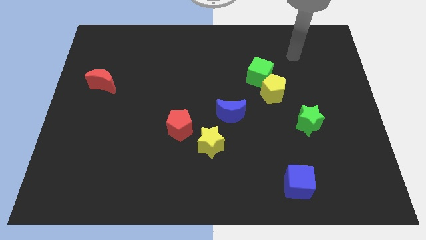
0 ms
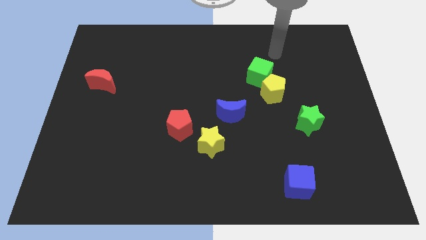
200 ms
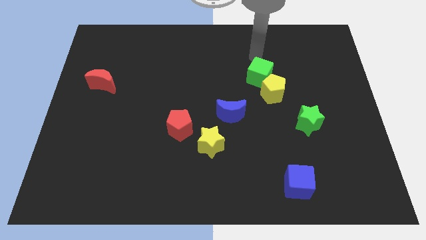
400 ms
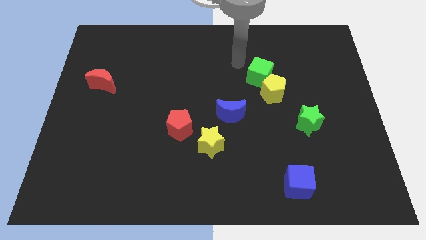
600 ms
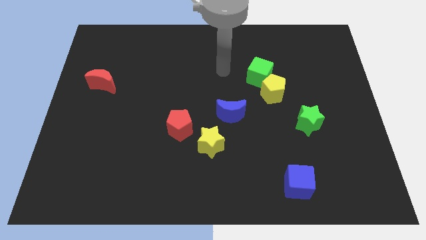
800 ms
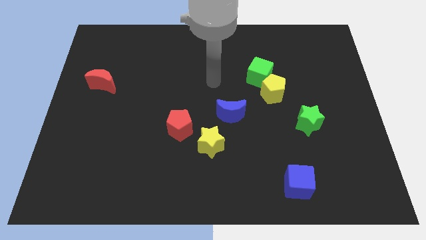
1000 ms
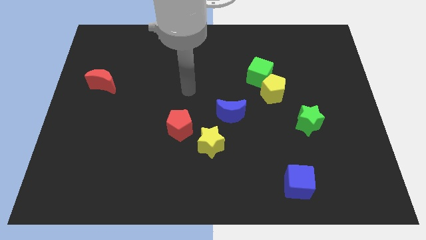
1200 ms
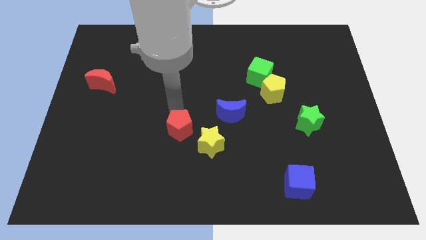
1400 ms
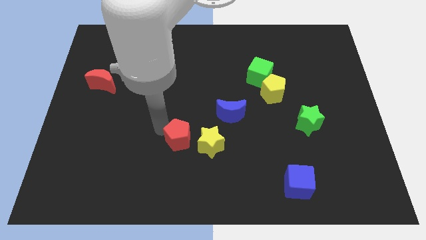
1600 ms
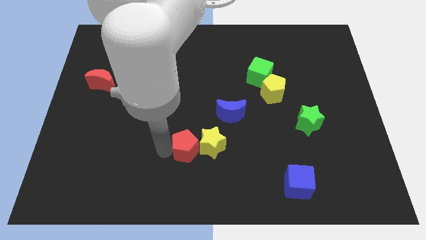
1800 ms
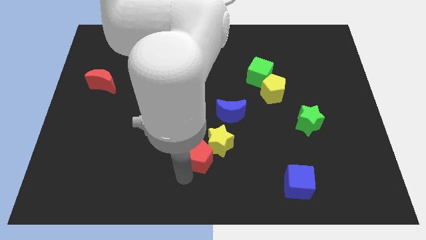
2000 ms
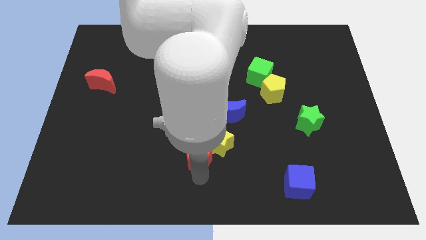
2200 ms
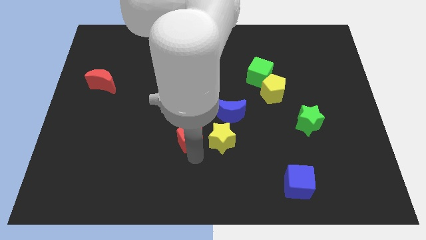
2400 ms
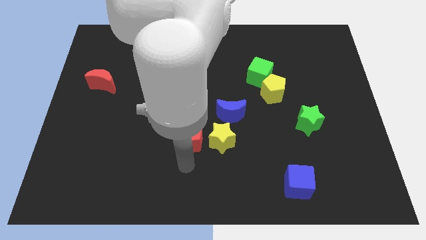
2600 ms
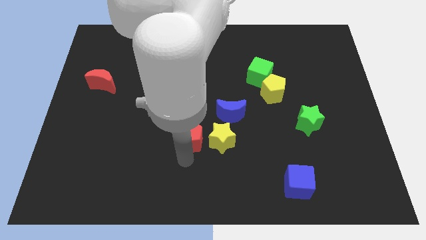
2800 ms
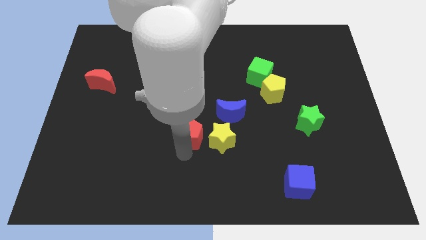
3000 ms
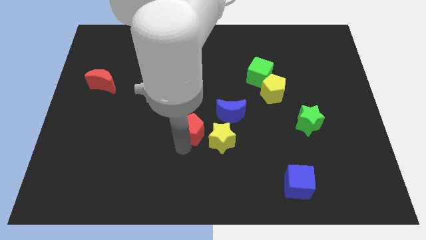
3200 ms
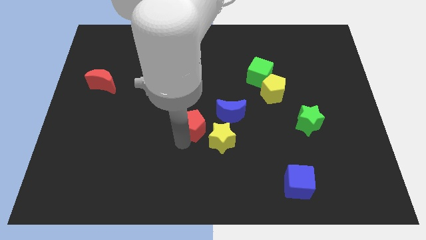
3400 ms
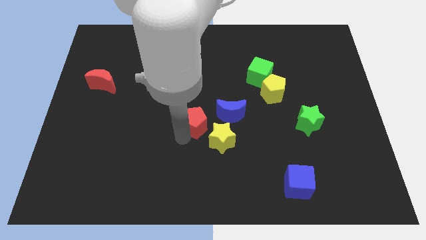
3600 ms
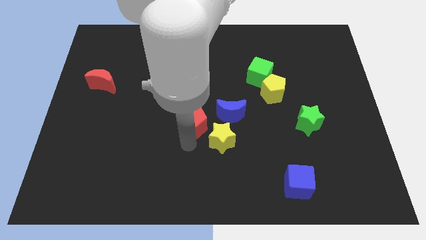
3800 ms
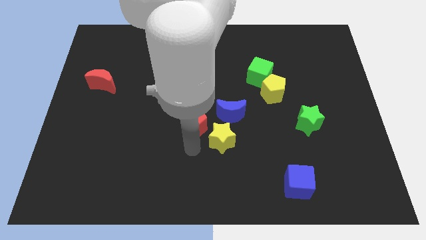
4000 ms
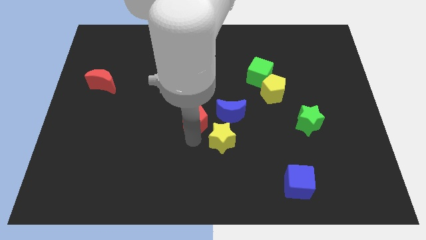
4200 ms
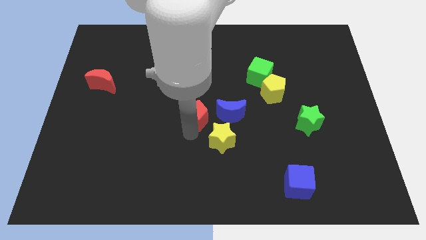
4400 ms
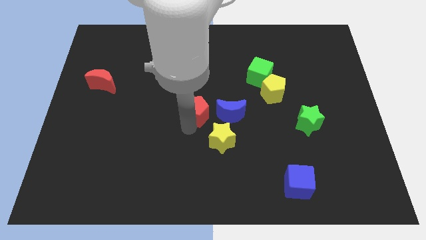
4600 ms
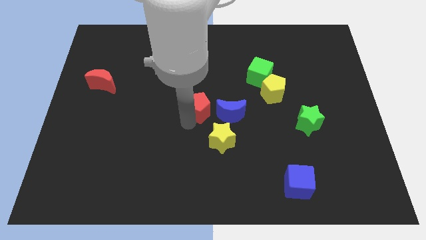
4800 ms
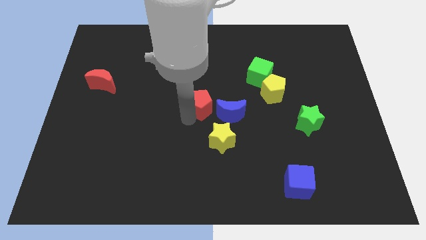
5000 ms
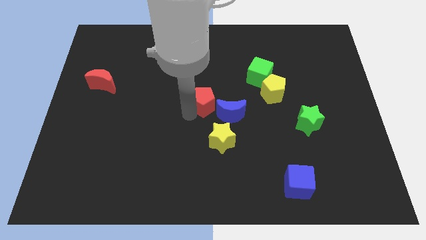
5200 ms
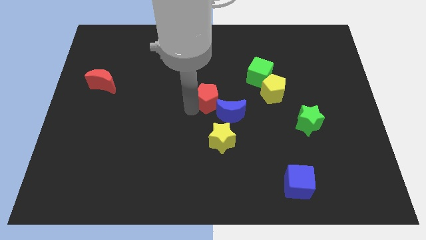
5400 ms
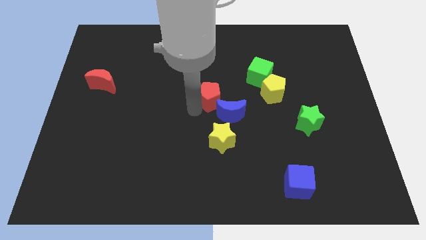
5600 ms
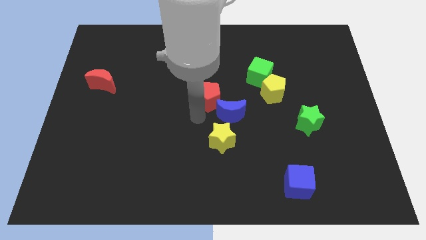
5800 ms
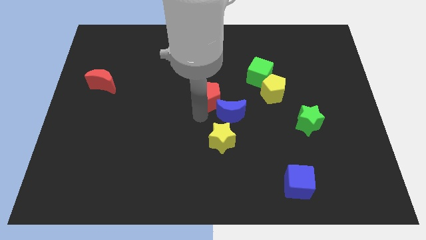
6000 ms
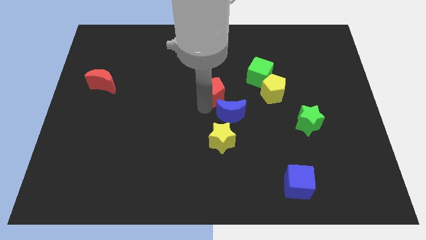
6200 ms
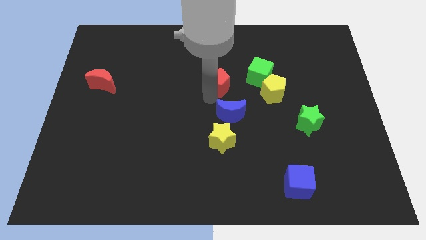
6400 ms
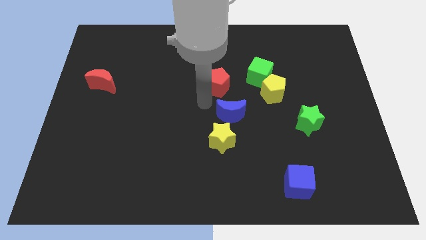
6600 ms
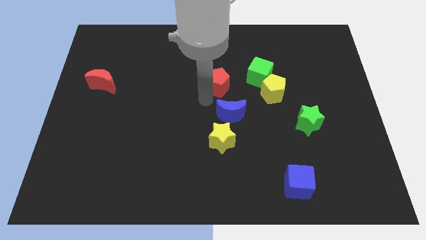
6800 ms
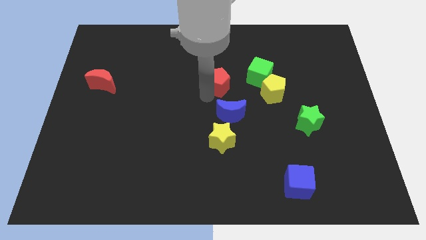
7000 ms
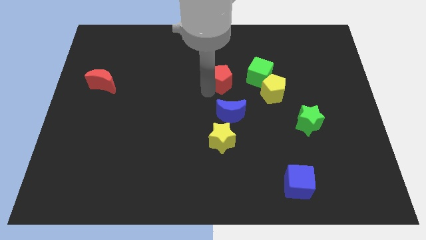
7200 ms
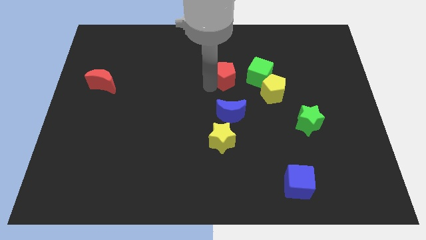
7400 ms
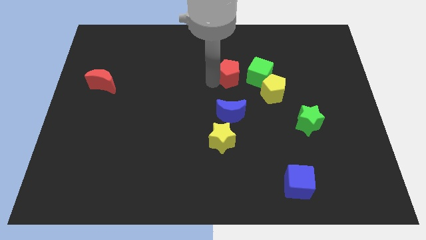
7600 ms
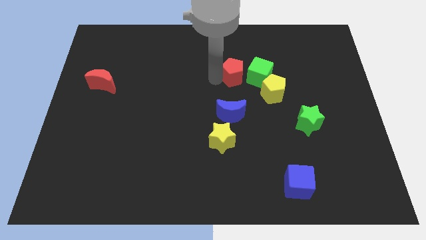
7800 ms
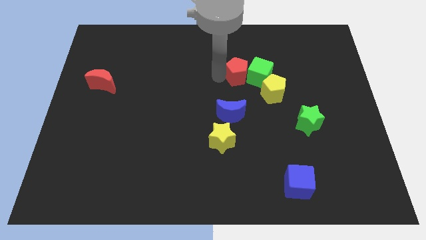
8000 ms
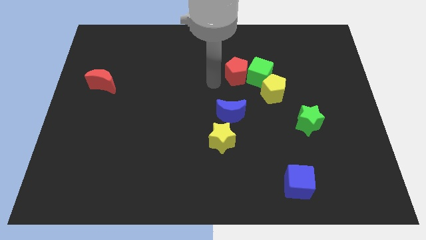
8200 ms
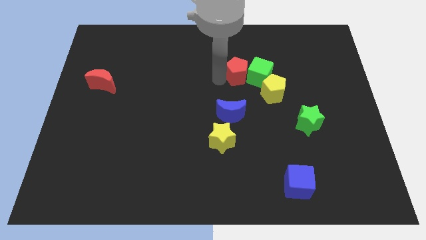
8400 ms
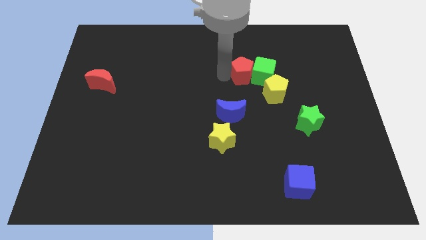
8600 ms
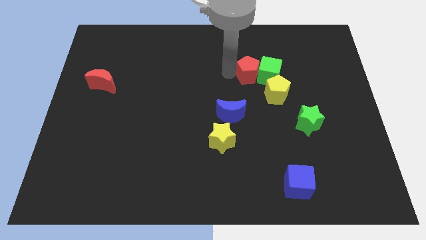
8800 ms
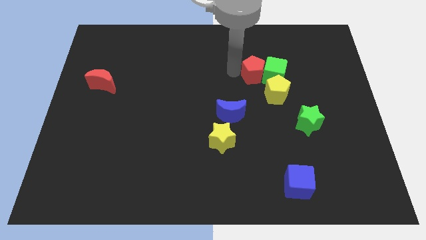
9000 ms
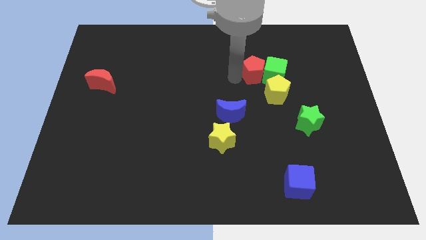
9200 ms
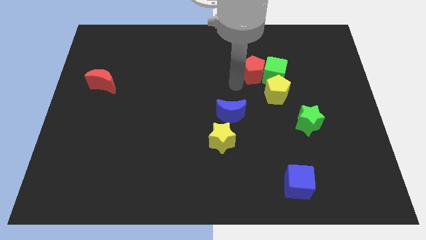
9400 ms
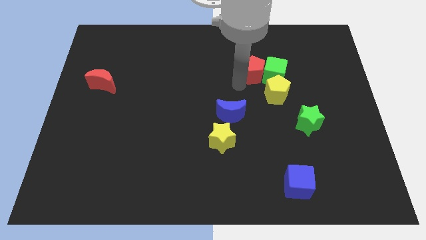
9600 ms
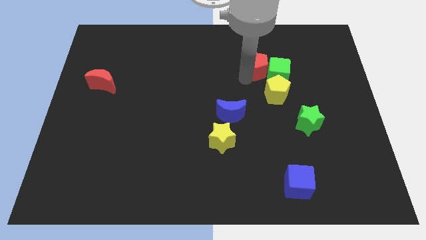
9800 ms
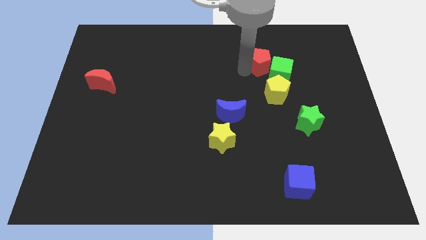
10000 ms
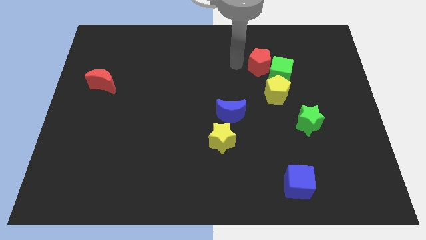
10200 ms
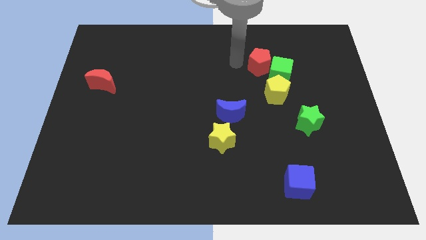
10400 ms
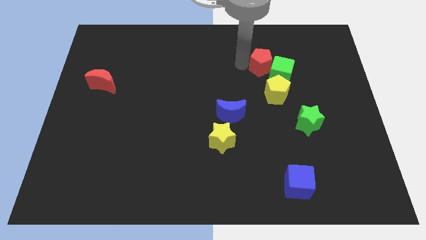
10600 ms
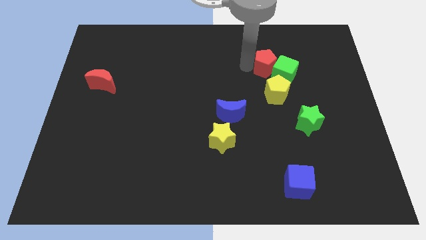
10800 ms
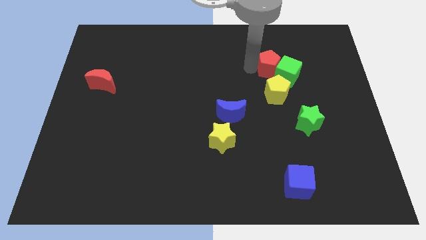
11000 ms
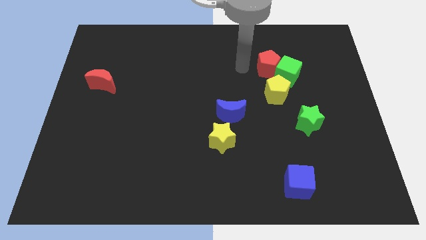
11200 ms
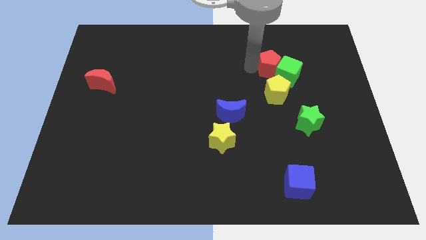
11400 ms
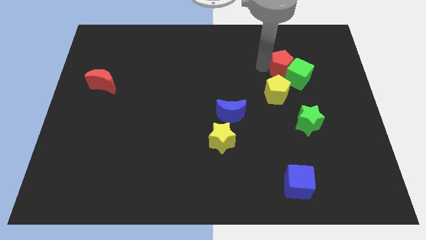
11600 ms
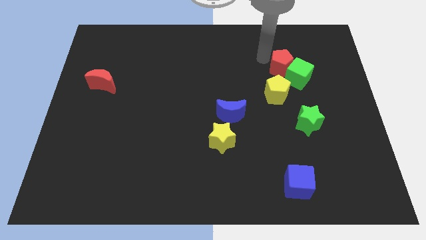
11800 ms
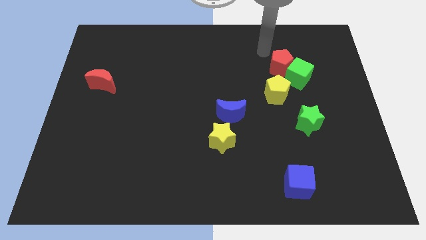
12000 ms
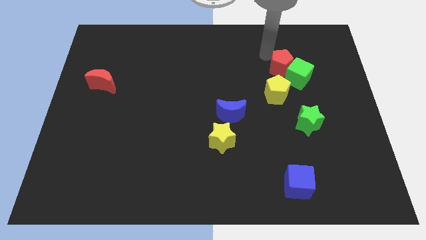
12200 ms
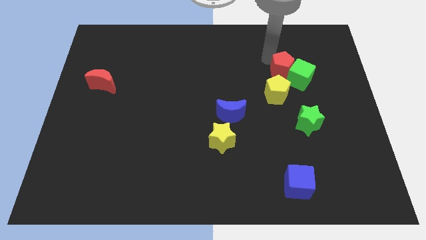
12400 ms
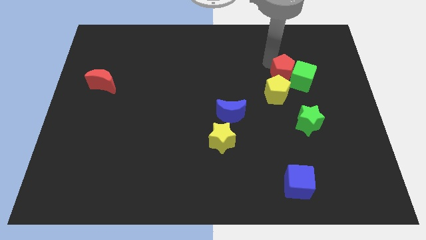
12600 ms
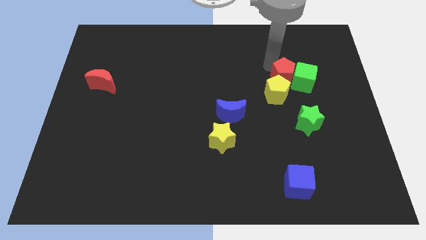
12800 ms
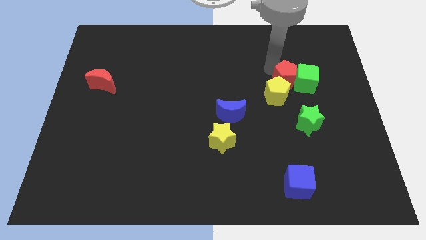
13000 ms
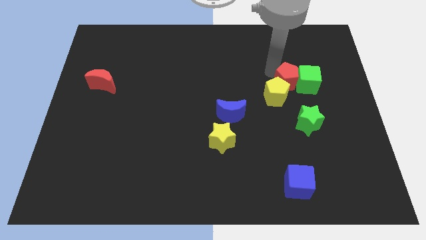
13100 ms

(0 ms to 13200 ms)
push the red pentagon to the right side of the yellow pentagon

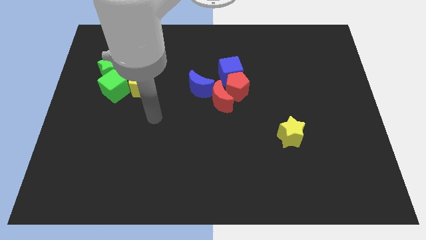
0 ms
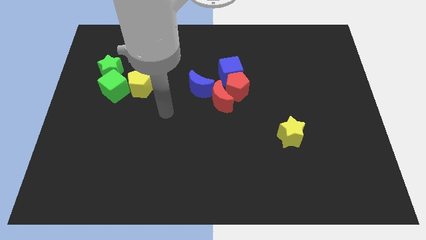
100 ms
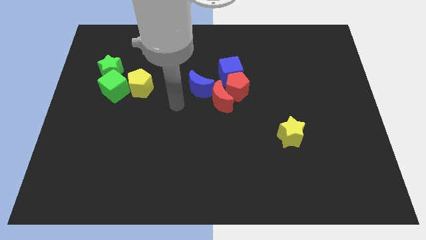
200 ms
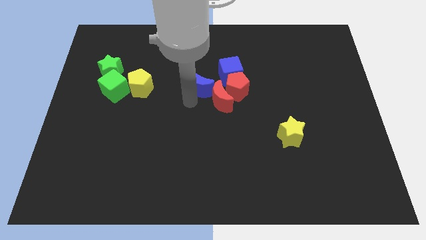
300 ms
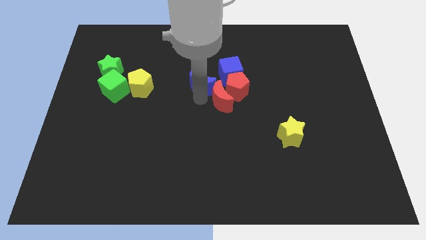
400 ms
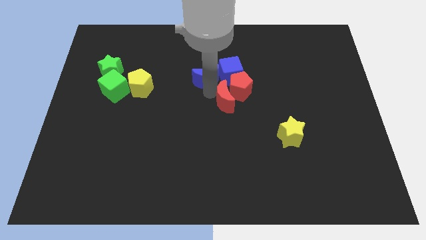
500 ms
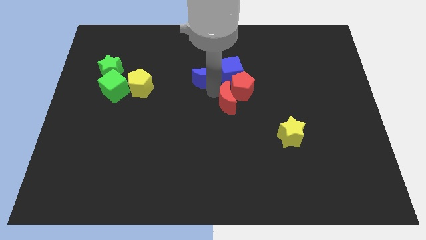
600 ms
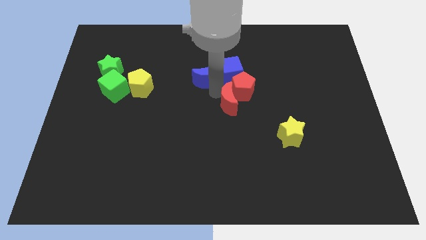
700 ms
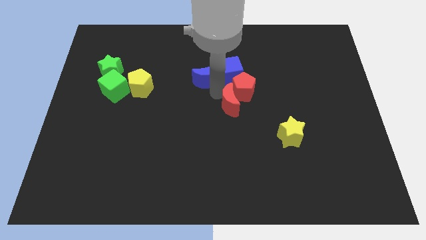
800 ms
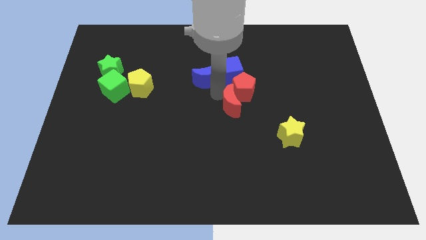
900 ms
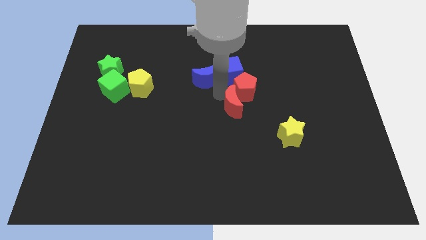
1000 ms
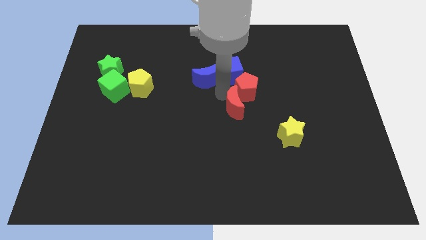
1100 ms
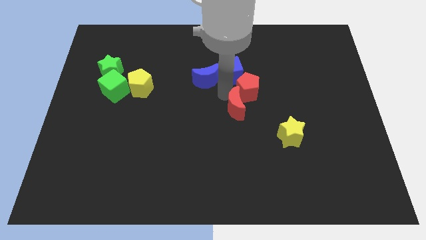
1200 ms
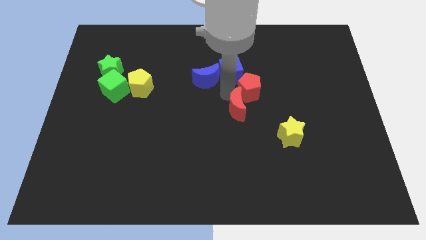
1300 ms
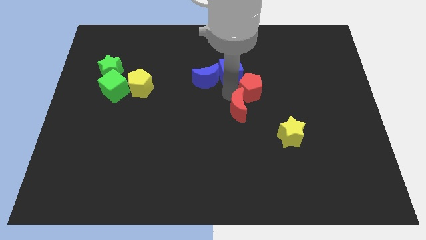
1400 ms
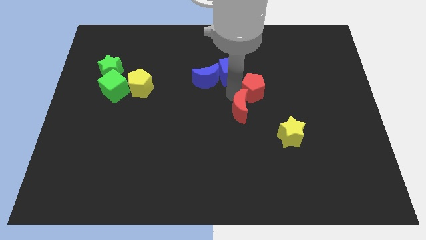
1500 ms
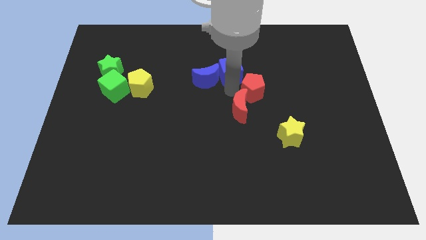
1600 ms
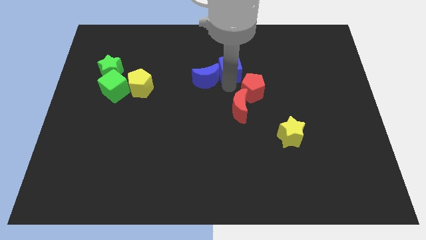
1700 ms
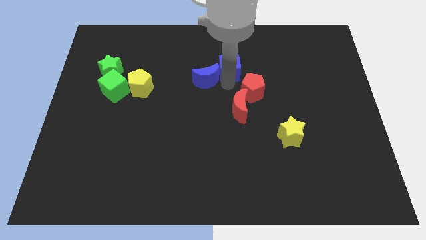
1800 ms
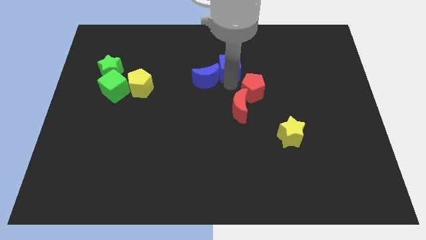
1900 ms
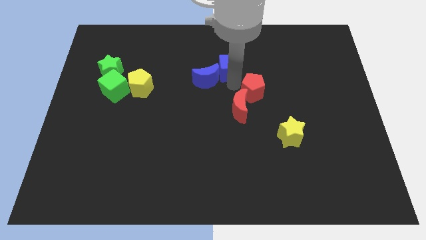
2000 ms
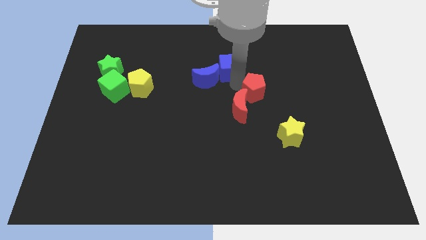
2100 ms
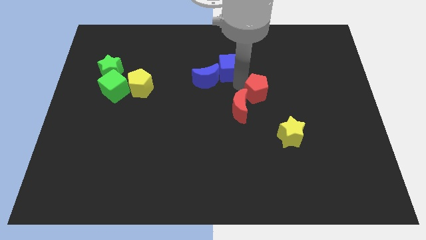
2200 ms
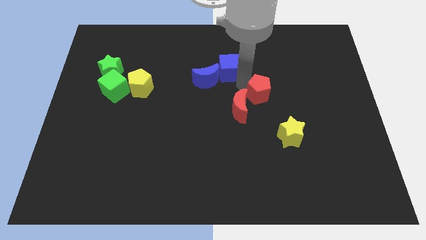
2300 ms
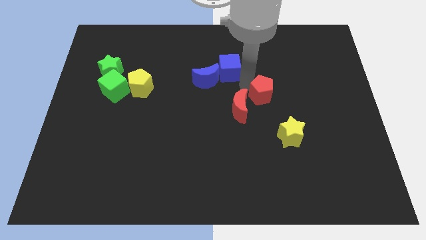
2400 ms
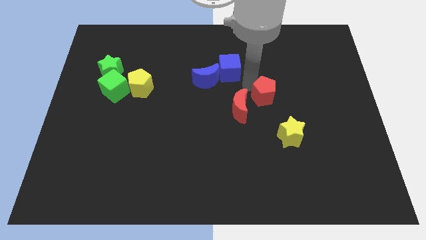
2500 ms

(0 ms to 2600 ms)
put the red pentagon to the top side of the yellow star
